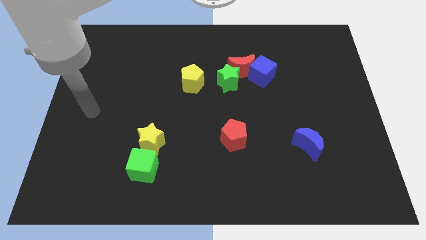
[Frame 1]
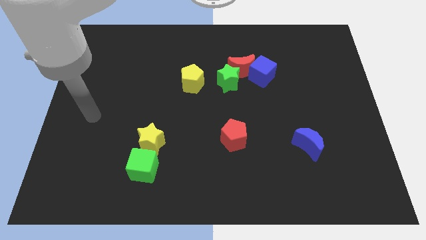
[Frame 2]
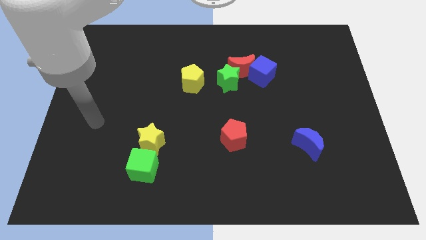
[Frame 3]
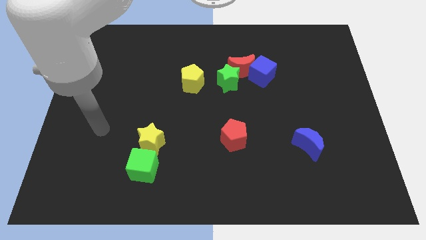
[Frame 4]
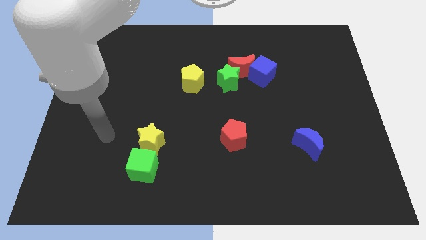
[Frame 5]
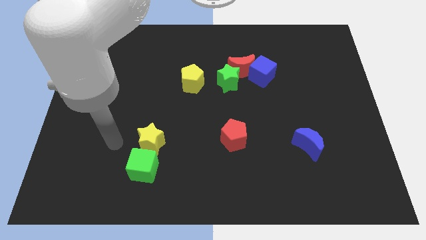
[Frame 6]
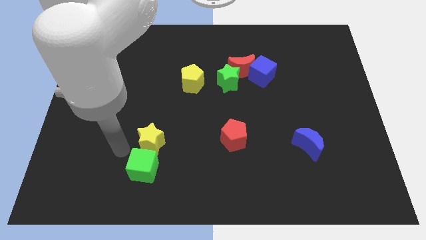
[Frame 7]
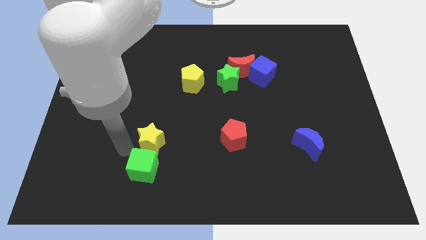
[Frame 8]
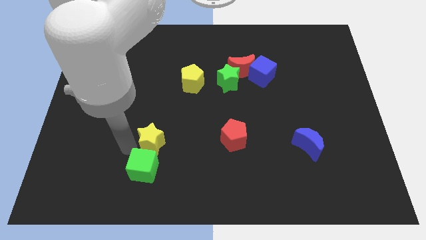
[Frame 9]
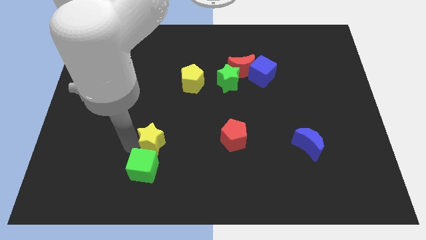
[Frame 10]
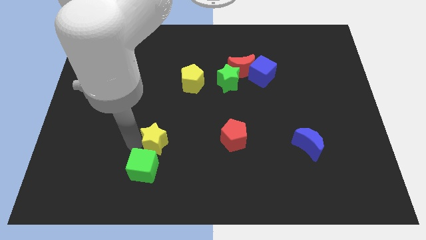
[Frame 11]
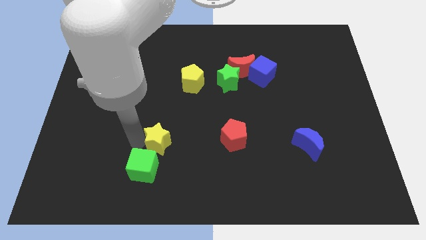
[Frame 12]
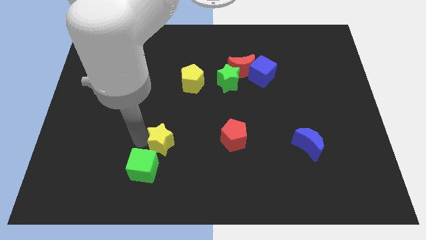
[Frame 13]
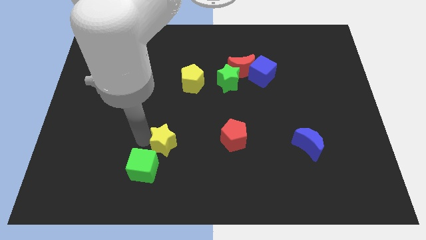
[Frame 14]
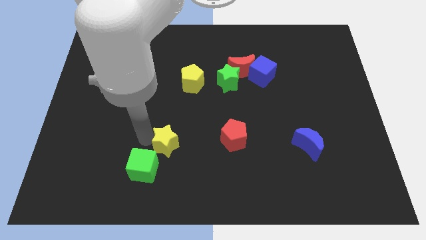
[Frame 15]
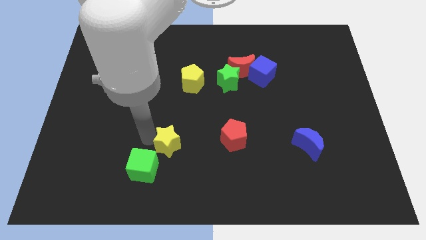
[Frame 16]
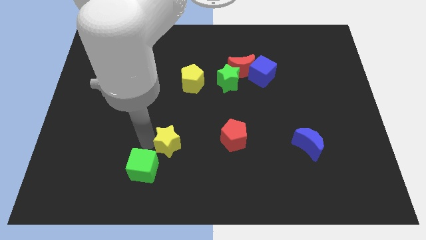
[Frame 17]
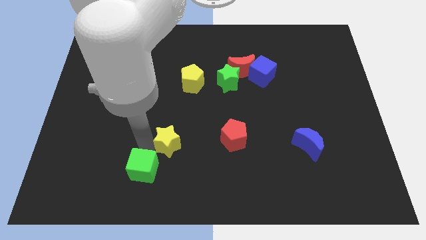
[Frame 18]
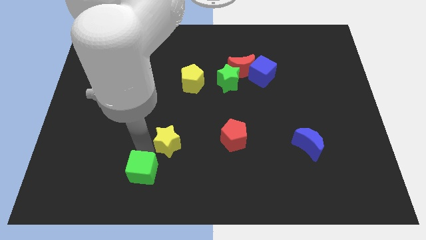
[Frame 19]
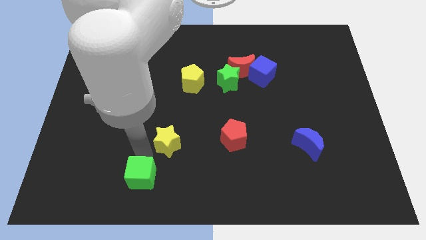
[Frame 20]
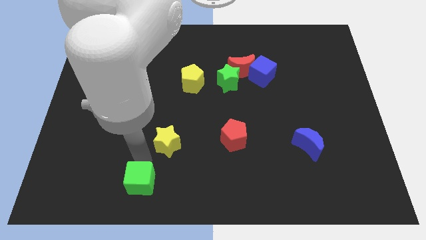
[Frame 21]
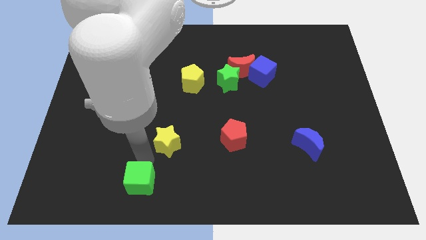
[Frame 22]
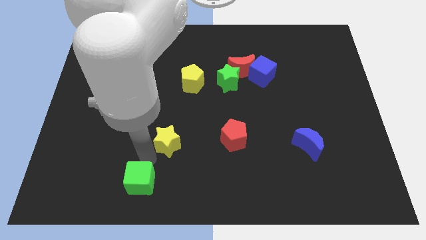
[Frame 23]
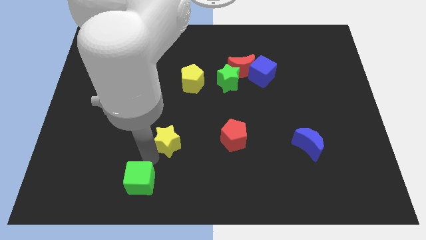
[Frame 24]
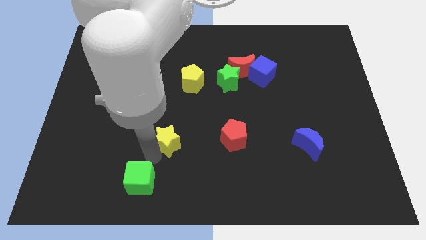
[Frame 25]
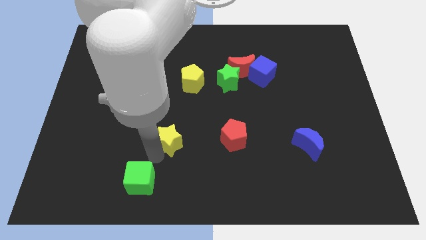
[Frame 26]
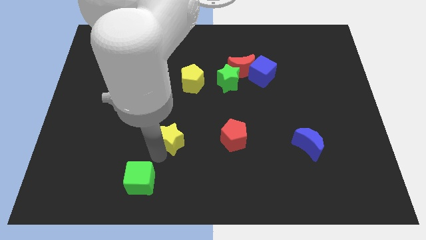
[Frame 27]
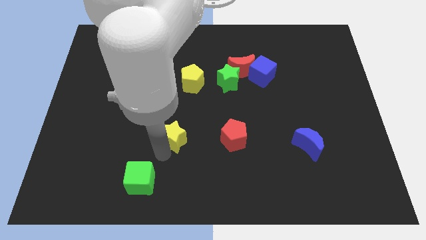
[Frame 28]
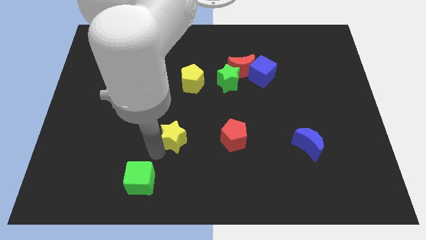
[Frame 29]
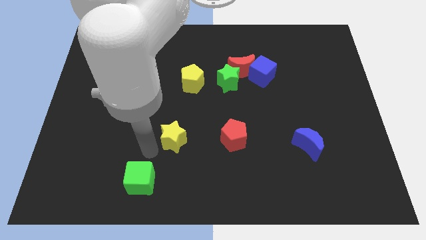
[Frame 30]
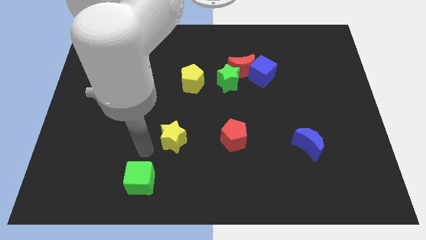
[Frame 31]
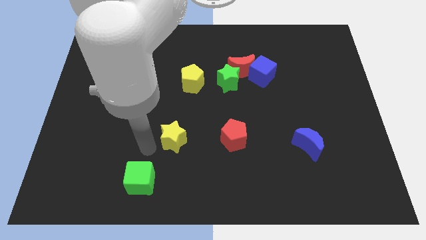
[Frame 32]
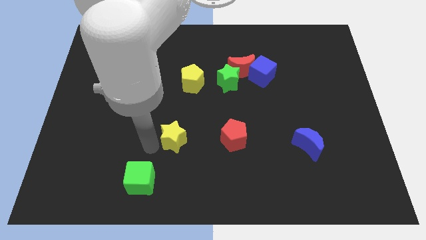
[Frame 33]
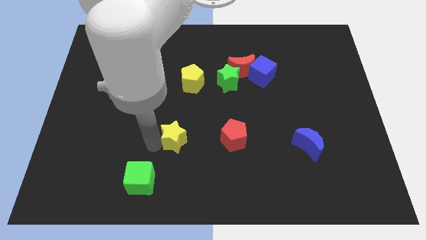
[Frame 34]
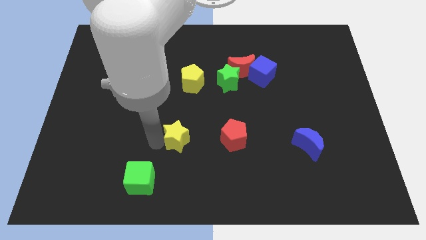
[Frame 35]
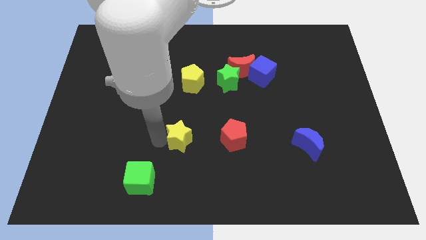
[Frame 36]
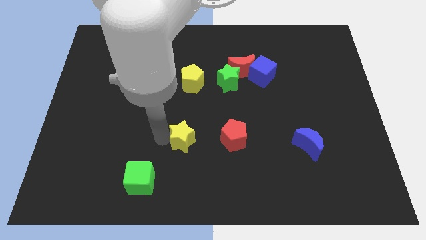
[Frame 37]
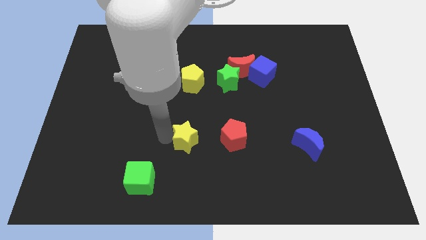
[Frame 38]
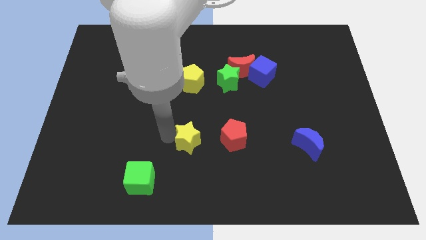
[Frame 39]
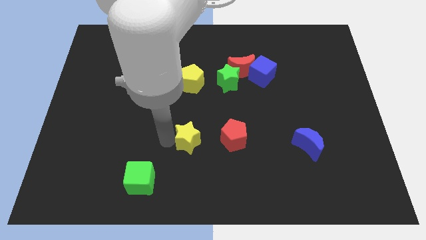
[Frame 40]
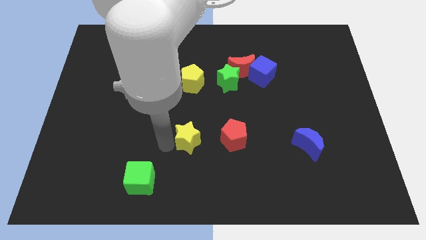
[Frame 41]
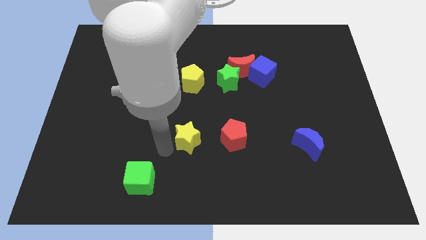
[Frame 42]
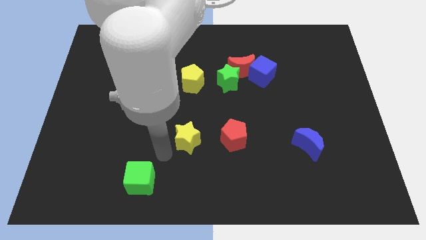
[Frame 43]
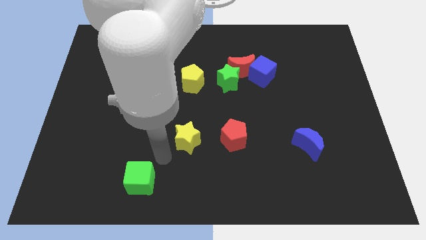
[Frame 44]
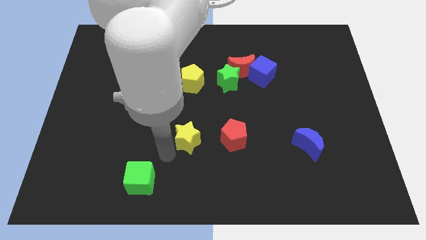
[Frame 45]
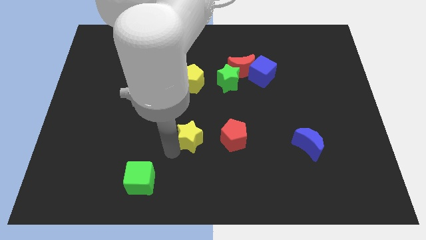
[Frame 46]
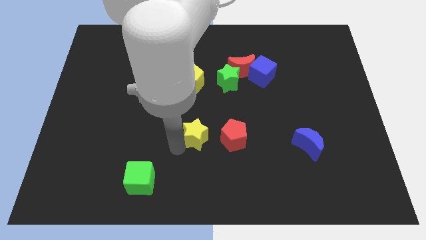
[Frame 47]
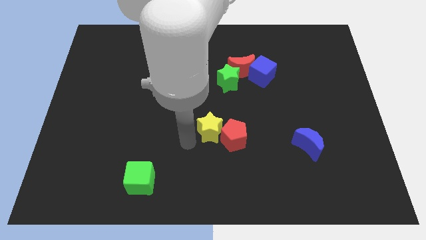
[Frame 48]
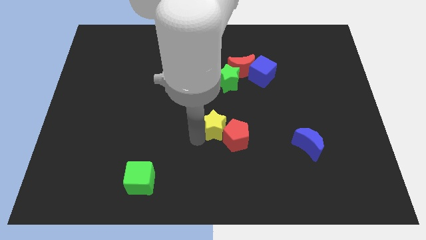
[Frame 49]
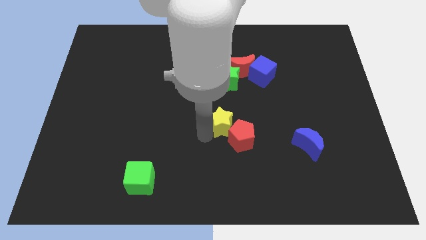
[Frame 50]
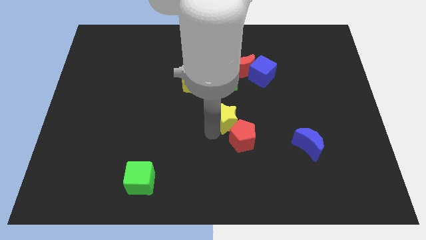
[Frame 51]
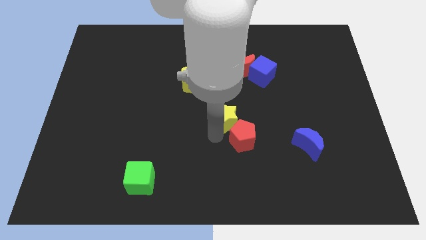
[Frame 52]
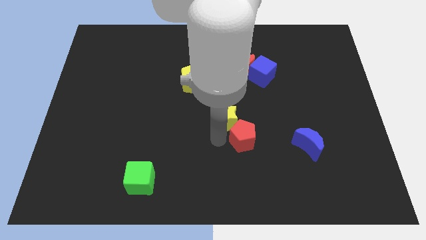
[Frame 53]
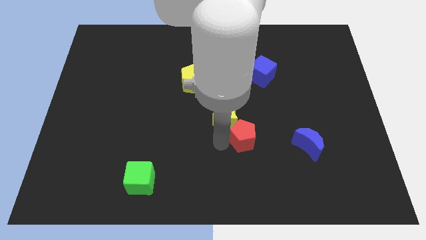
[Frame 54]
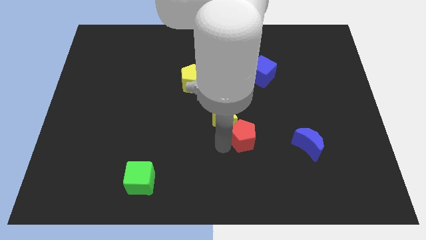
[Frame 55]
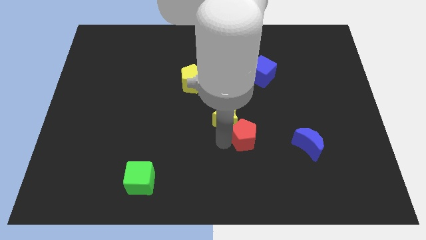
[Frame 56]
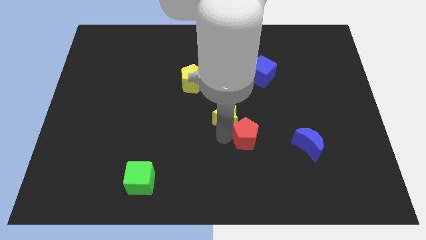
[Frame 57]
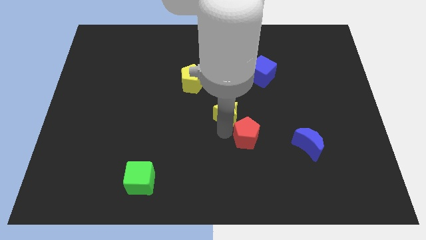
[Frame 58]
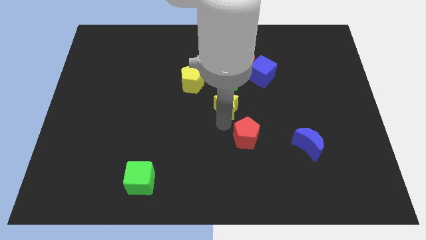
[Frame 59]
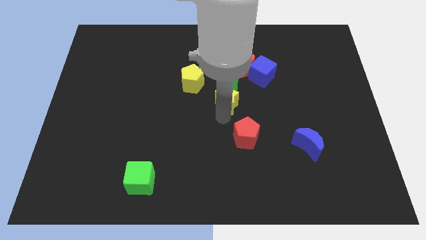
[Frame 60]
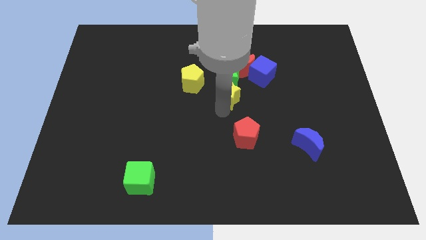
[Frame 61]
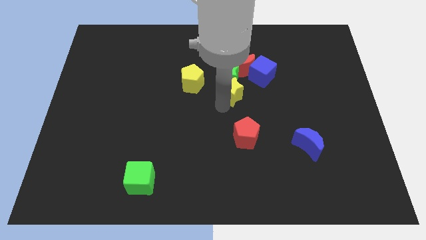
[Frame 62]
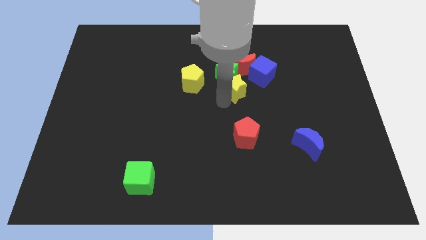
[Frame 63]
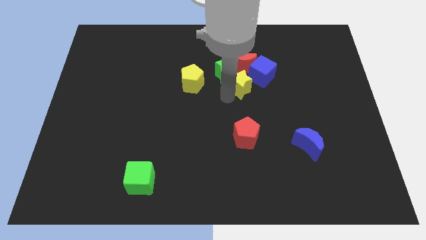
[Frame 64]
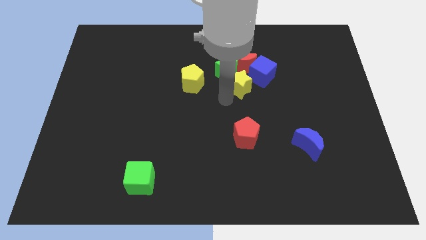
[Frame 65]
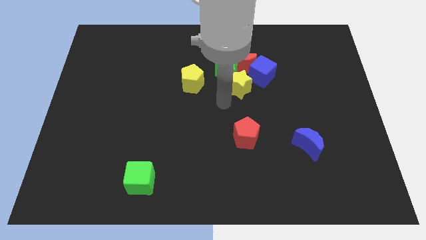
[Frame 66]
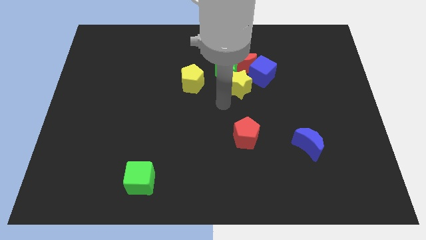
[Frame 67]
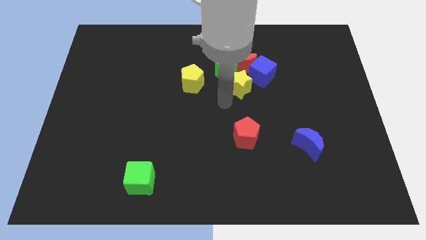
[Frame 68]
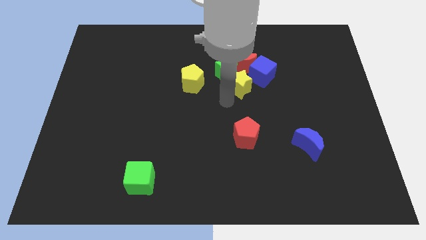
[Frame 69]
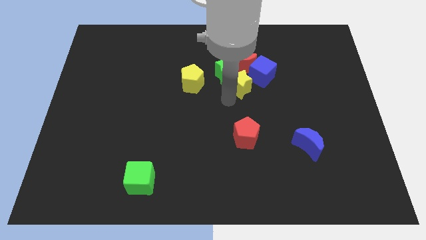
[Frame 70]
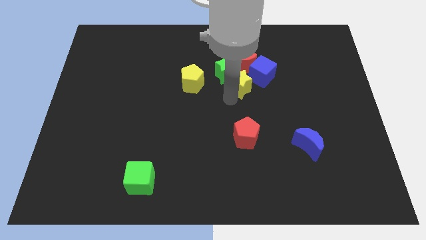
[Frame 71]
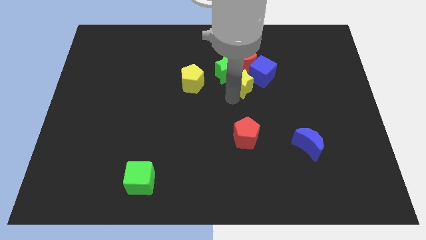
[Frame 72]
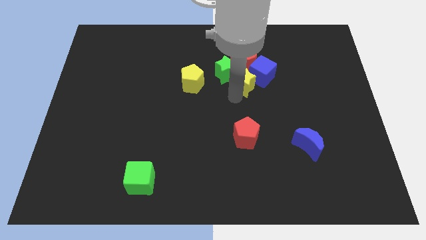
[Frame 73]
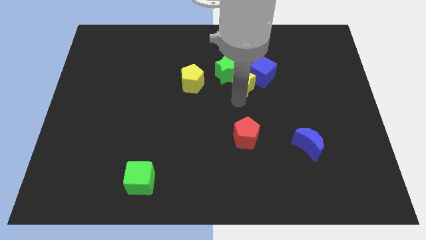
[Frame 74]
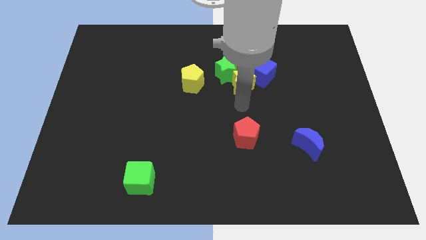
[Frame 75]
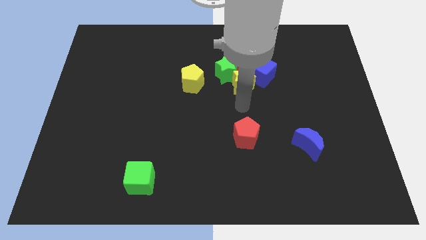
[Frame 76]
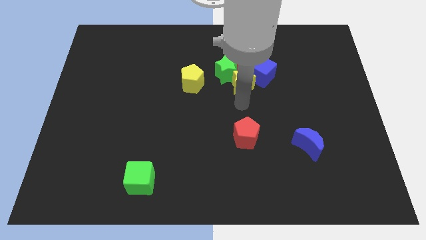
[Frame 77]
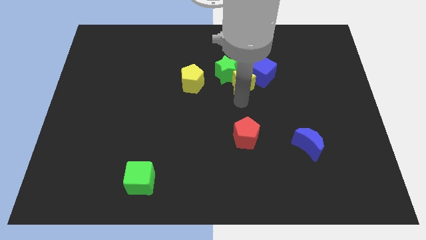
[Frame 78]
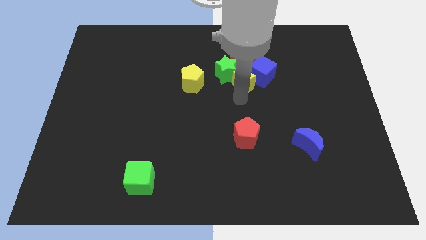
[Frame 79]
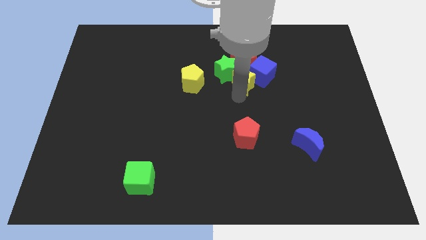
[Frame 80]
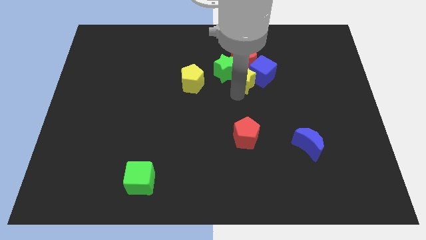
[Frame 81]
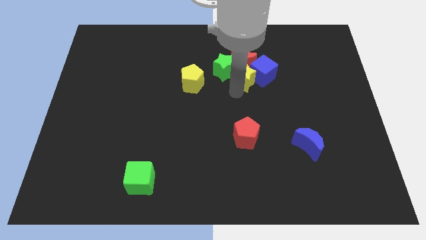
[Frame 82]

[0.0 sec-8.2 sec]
put the yellow star to the red moon
